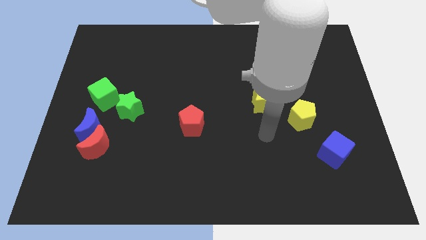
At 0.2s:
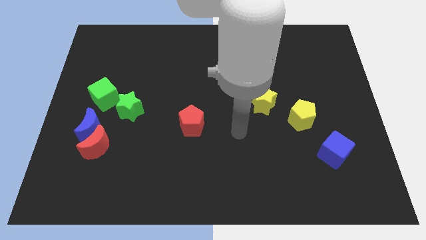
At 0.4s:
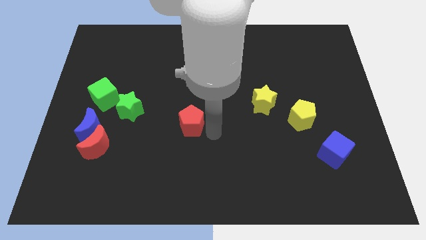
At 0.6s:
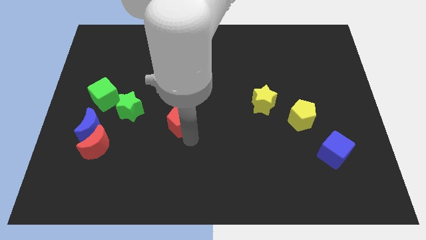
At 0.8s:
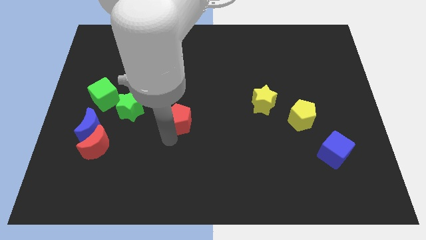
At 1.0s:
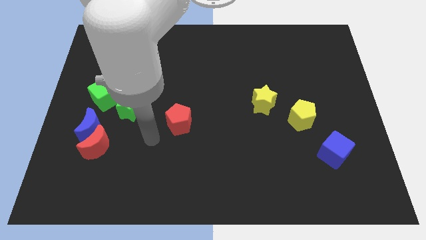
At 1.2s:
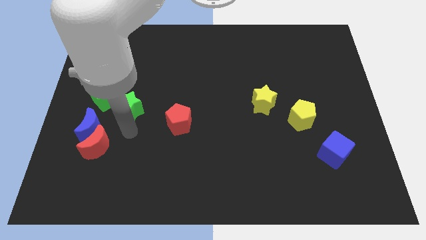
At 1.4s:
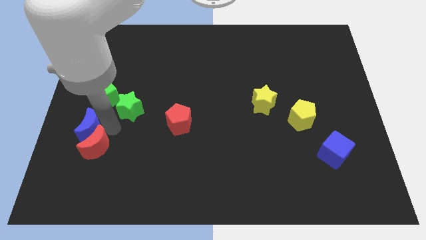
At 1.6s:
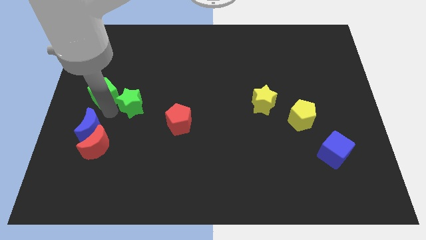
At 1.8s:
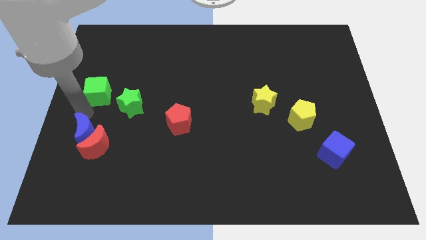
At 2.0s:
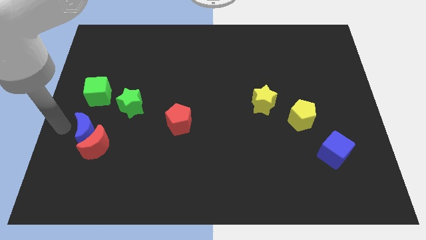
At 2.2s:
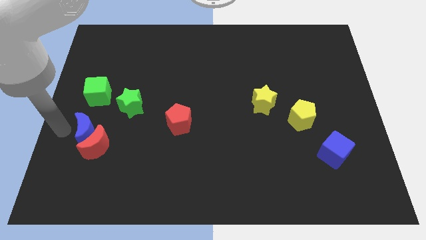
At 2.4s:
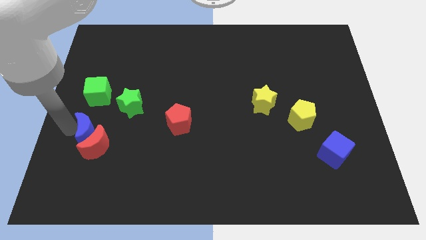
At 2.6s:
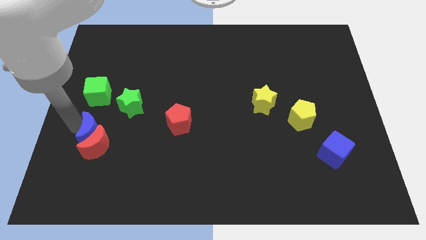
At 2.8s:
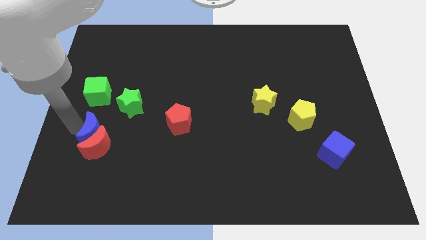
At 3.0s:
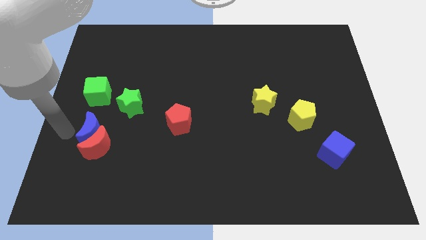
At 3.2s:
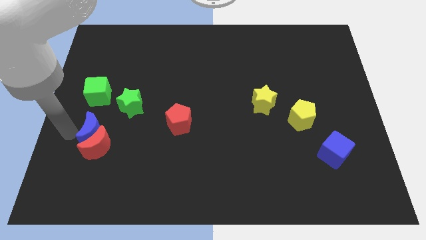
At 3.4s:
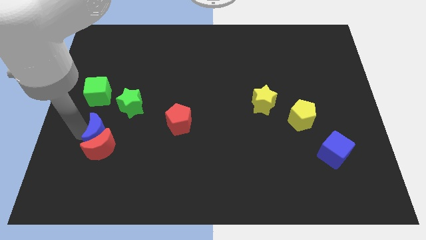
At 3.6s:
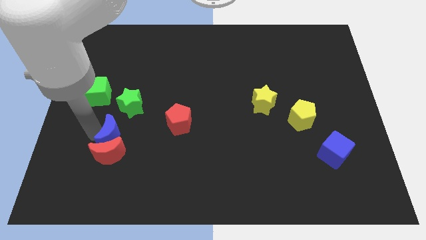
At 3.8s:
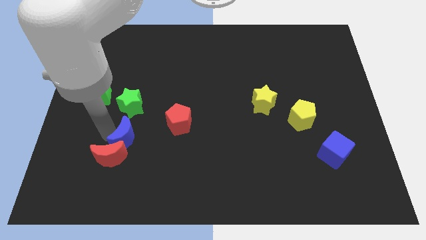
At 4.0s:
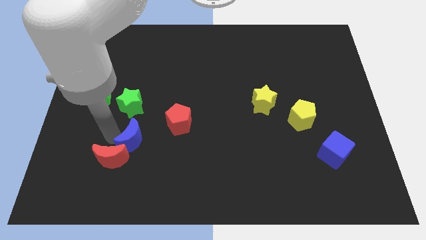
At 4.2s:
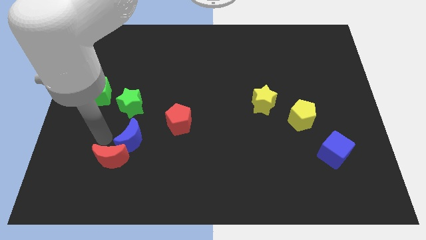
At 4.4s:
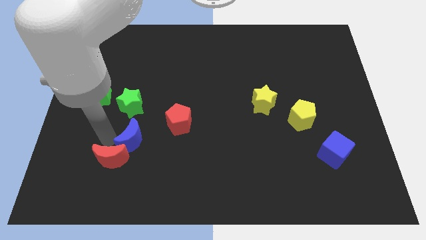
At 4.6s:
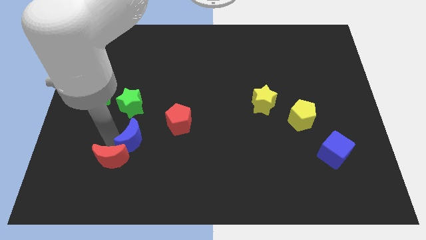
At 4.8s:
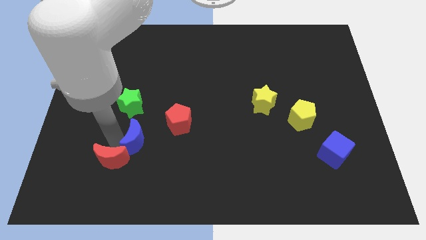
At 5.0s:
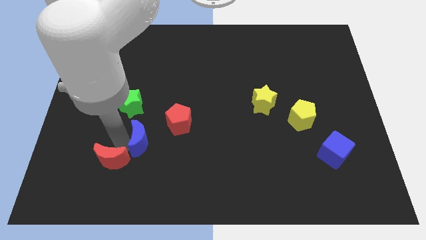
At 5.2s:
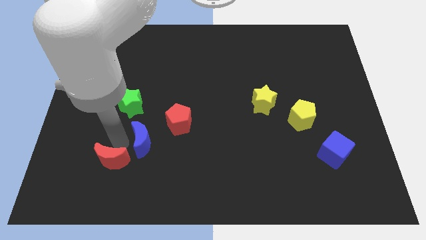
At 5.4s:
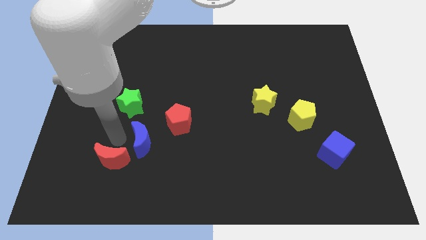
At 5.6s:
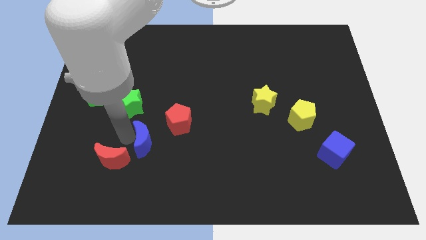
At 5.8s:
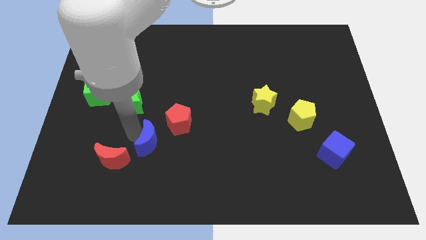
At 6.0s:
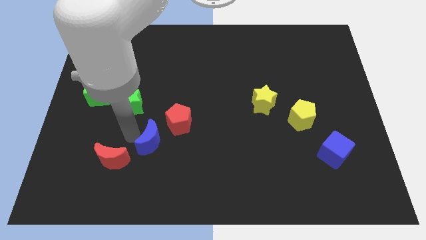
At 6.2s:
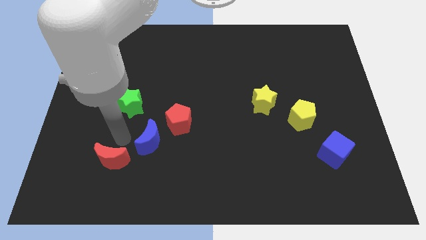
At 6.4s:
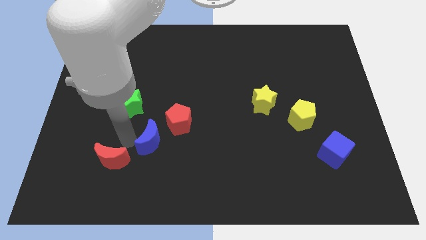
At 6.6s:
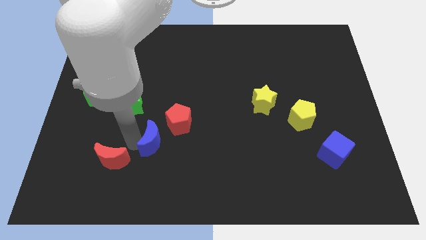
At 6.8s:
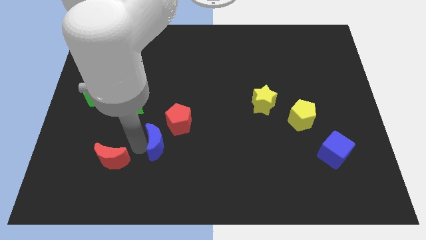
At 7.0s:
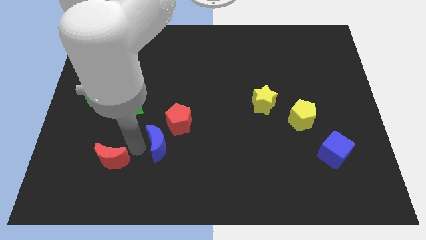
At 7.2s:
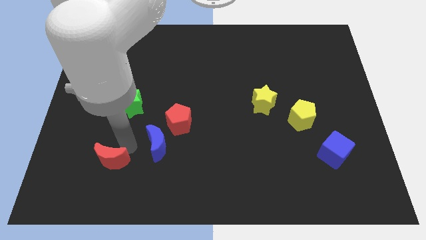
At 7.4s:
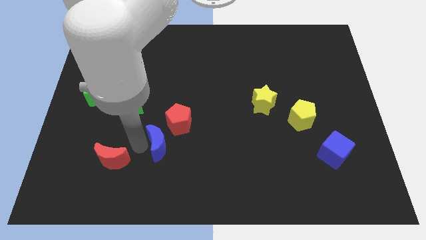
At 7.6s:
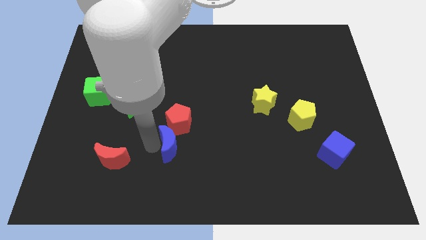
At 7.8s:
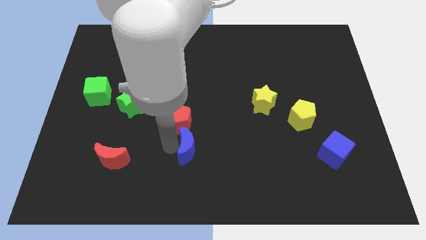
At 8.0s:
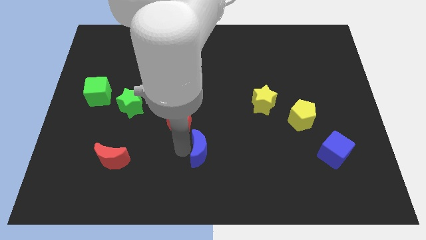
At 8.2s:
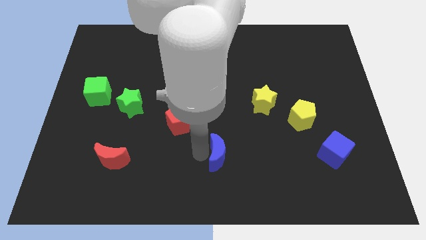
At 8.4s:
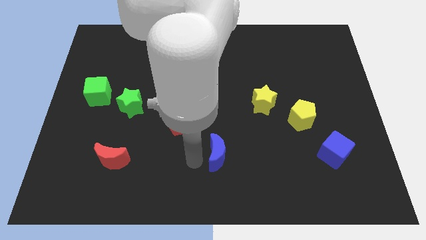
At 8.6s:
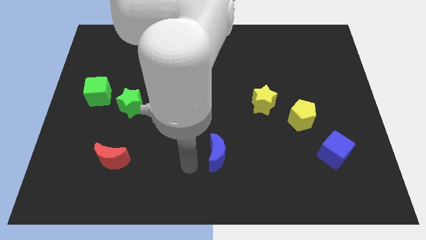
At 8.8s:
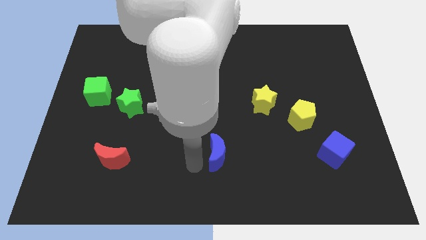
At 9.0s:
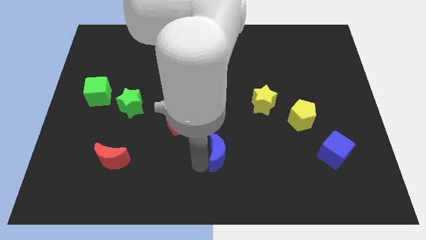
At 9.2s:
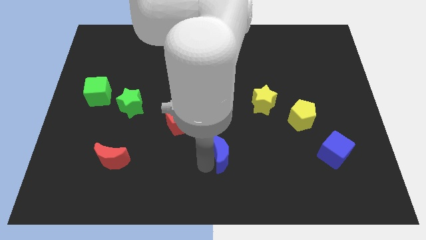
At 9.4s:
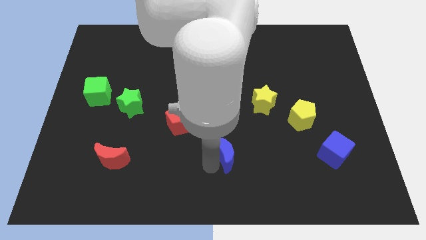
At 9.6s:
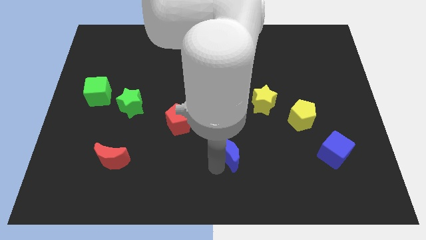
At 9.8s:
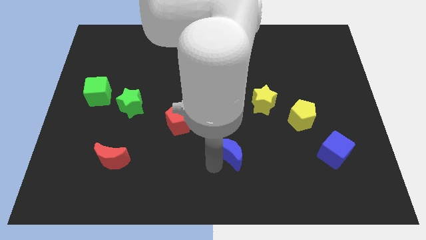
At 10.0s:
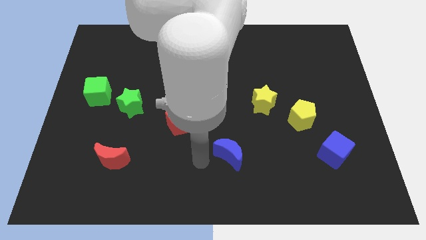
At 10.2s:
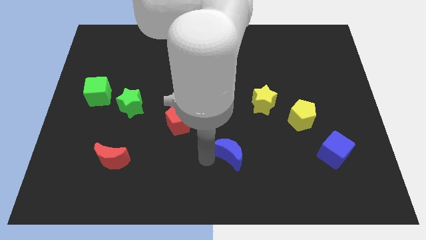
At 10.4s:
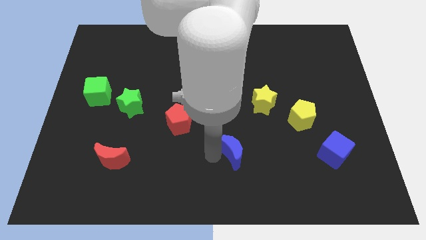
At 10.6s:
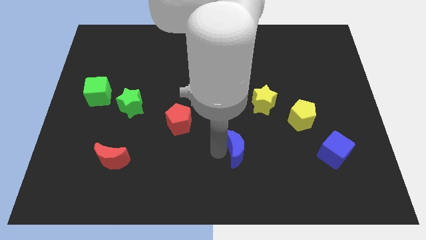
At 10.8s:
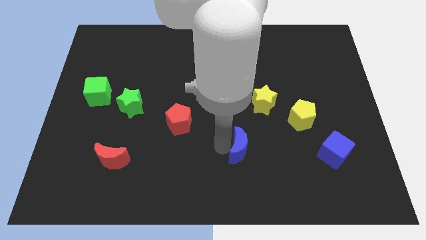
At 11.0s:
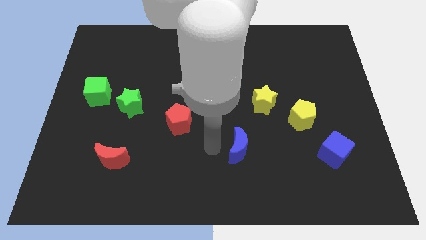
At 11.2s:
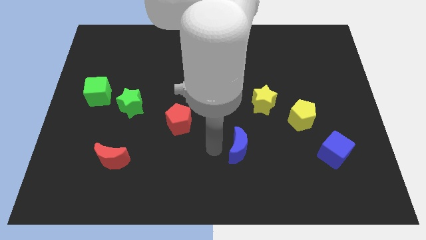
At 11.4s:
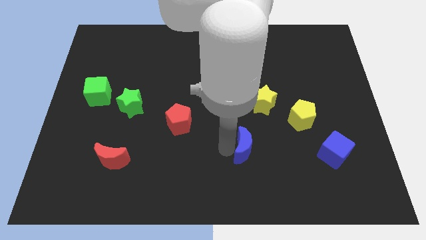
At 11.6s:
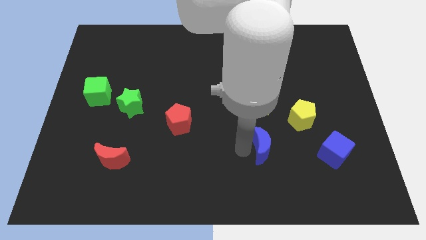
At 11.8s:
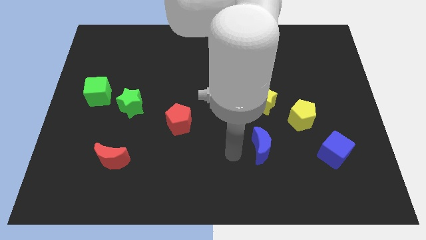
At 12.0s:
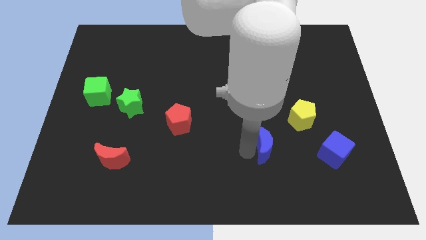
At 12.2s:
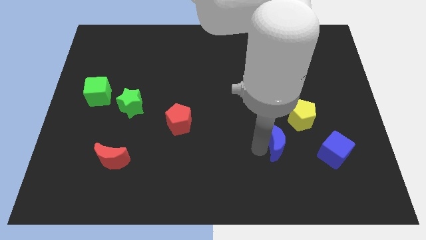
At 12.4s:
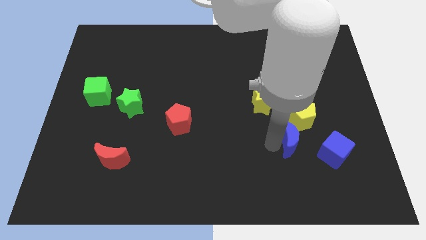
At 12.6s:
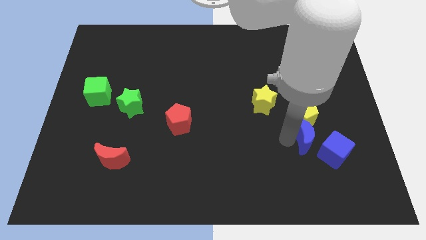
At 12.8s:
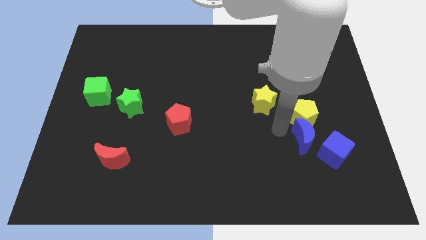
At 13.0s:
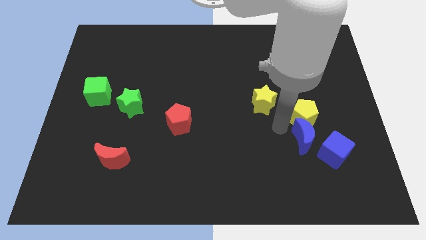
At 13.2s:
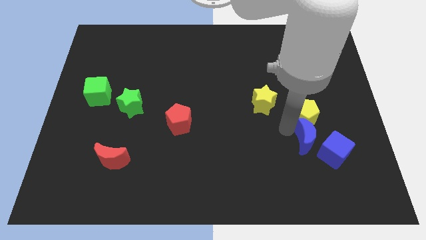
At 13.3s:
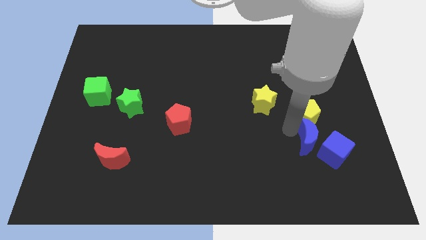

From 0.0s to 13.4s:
push the blue moon next to the blue cube
